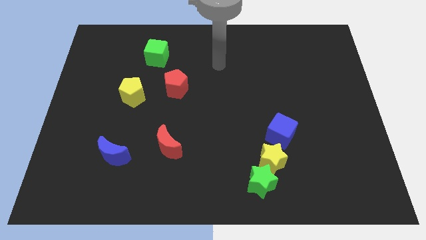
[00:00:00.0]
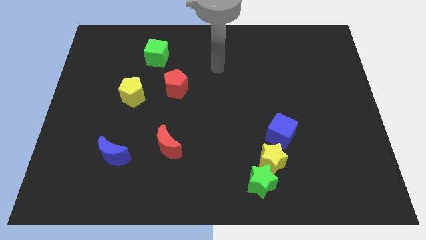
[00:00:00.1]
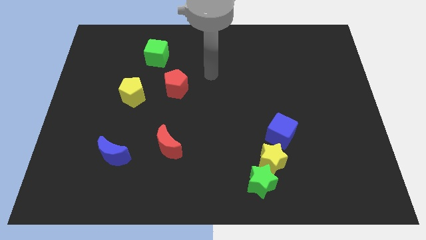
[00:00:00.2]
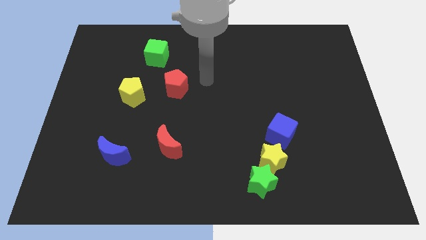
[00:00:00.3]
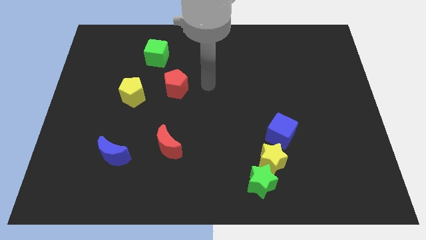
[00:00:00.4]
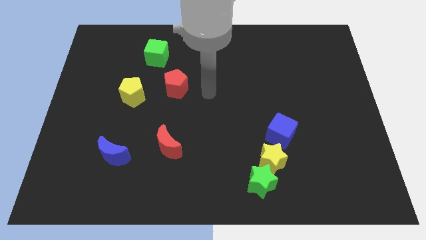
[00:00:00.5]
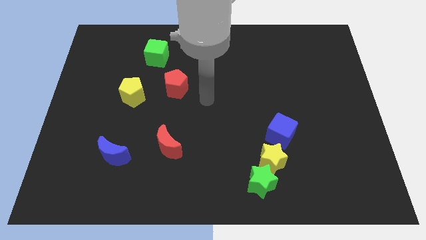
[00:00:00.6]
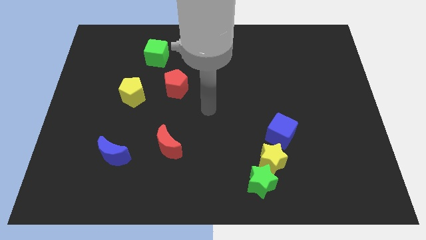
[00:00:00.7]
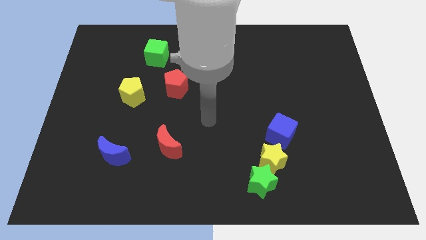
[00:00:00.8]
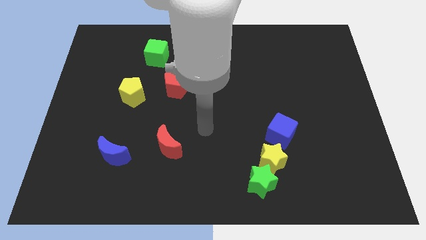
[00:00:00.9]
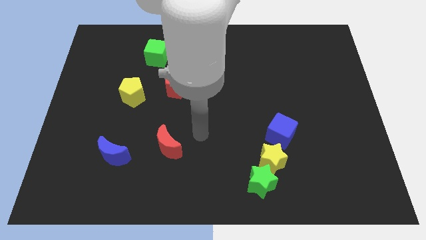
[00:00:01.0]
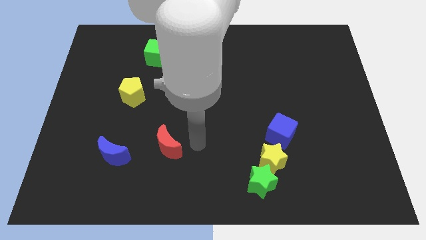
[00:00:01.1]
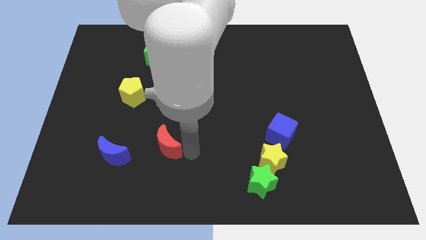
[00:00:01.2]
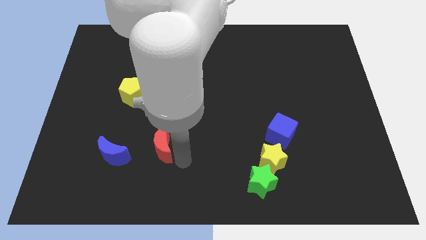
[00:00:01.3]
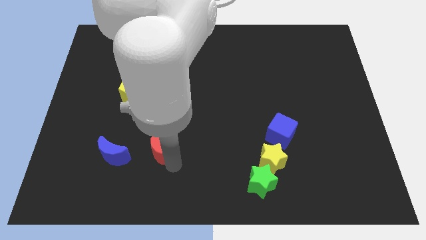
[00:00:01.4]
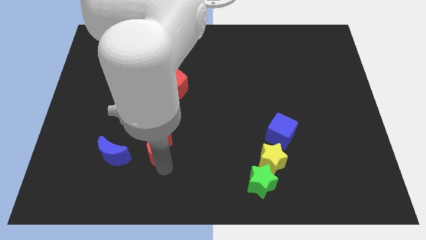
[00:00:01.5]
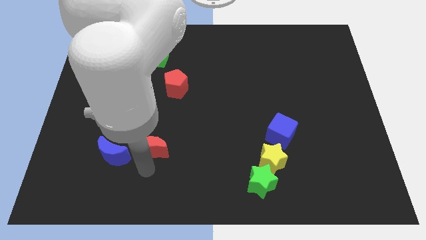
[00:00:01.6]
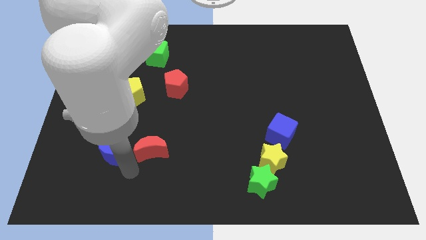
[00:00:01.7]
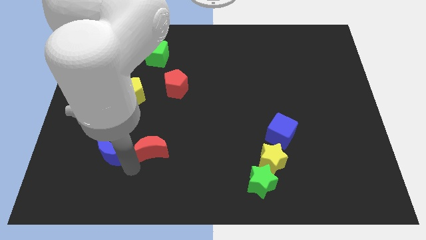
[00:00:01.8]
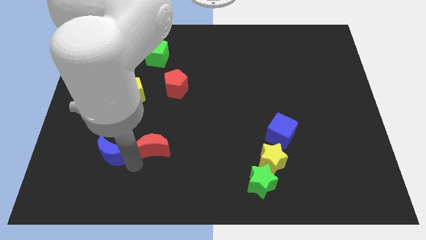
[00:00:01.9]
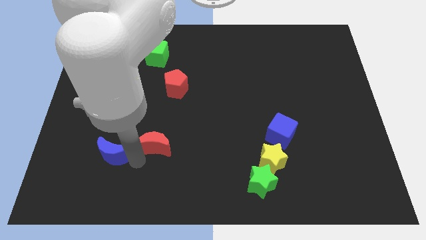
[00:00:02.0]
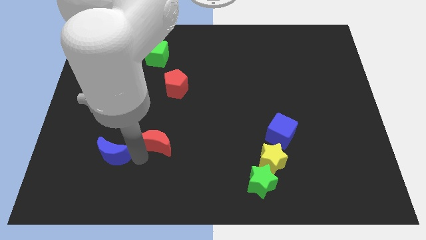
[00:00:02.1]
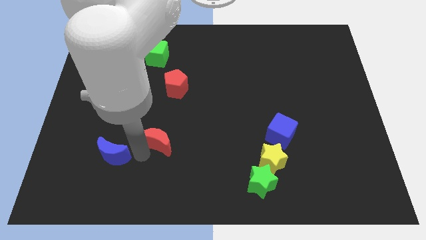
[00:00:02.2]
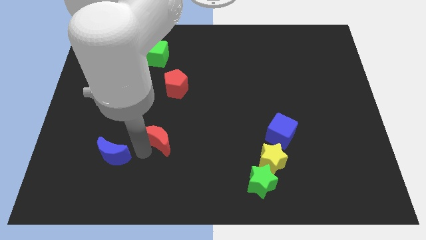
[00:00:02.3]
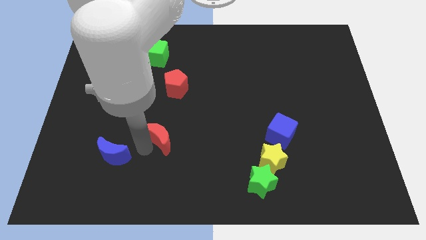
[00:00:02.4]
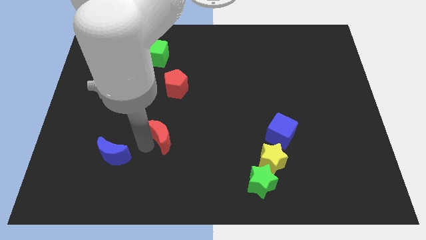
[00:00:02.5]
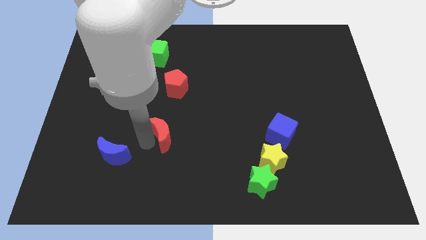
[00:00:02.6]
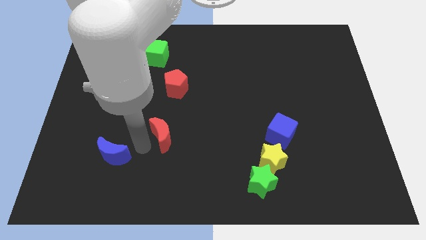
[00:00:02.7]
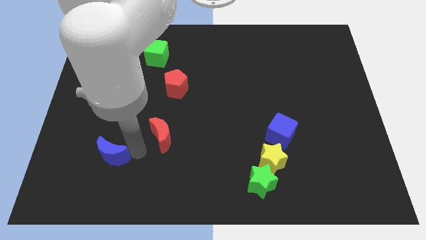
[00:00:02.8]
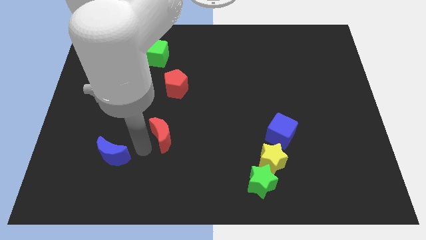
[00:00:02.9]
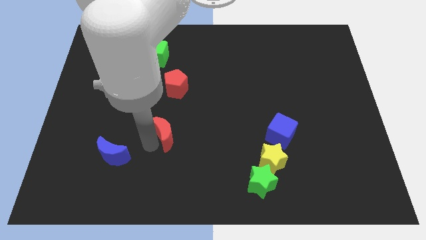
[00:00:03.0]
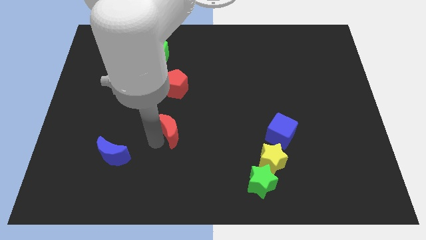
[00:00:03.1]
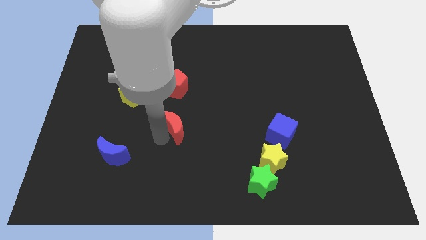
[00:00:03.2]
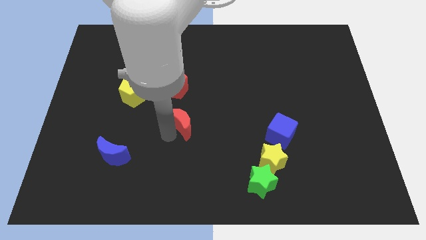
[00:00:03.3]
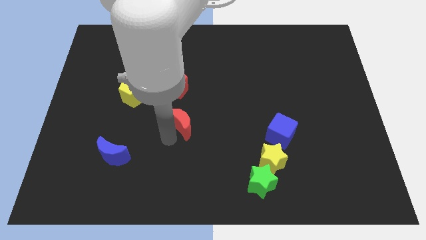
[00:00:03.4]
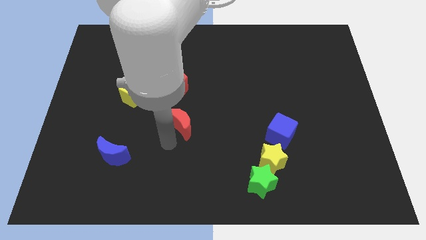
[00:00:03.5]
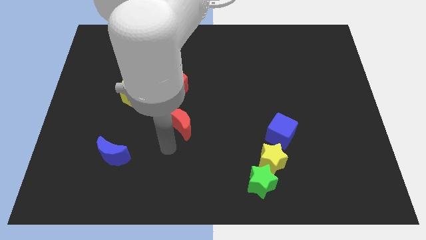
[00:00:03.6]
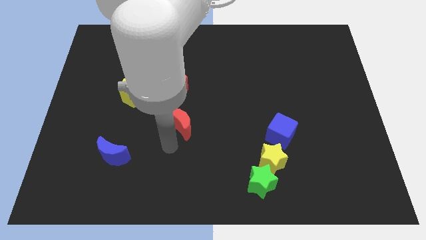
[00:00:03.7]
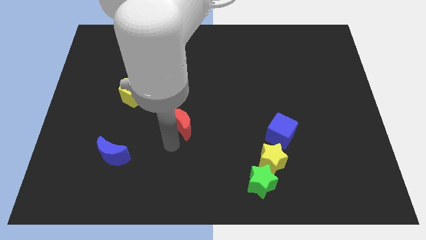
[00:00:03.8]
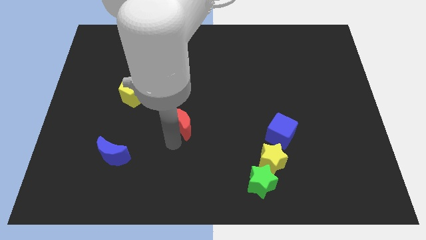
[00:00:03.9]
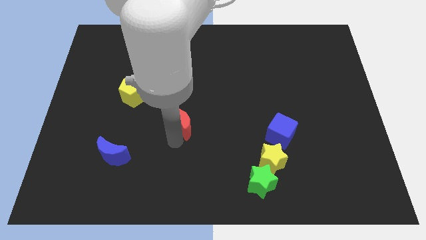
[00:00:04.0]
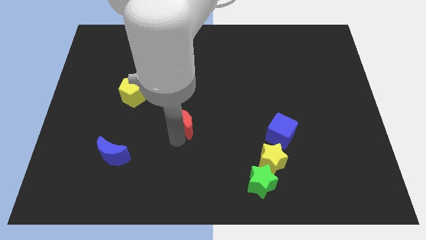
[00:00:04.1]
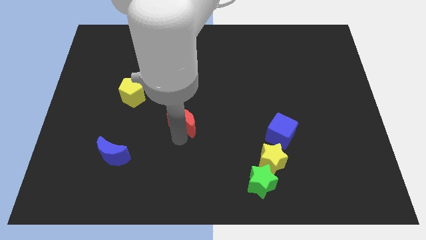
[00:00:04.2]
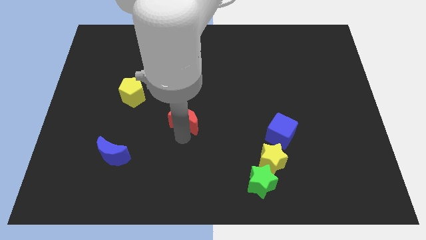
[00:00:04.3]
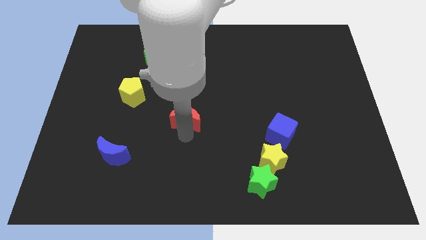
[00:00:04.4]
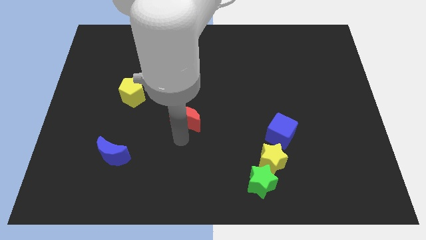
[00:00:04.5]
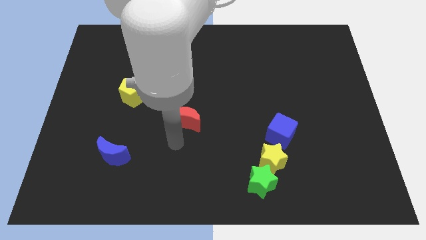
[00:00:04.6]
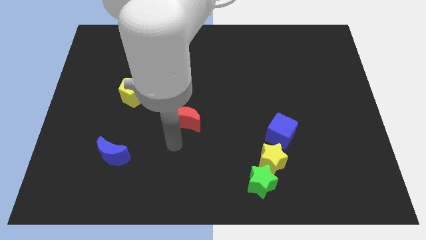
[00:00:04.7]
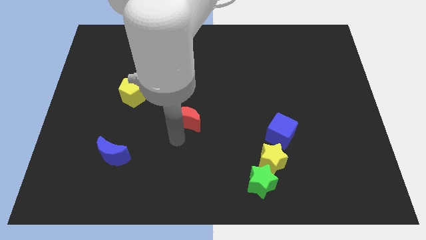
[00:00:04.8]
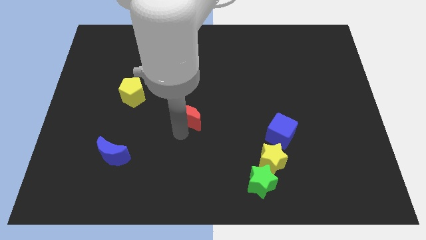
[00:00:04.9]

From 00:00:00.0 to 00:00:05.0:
push the red moon to the bottom right side of the red pentagon

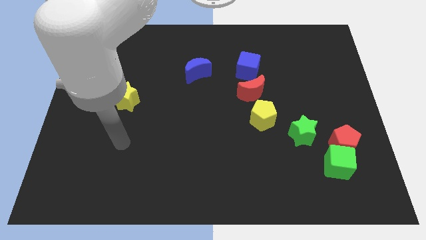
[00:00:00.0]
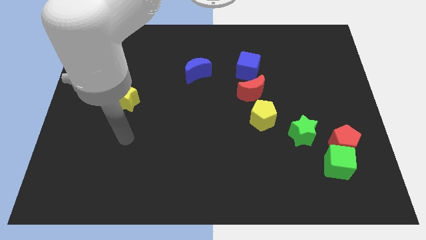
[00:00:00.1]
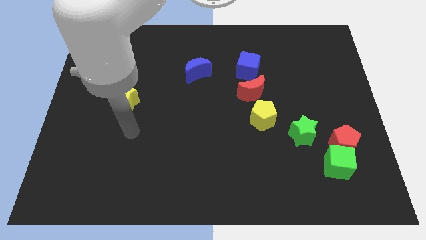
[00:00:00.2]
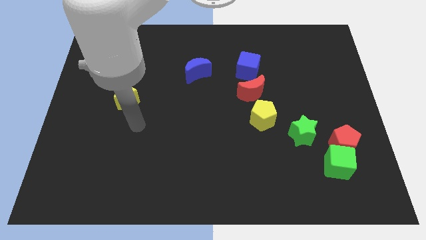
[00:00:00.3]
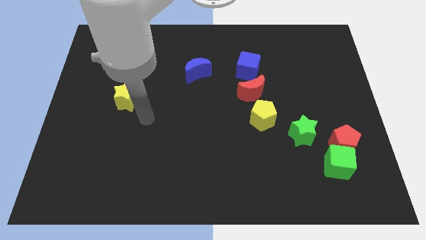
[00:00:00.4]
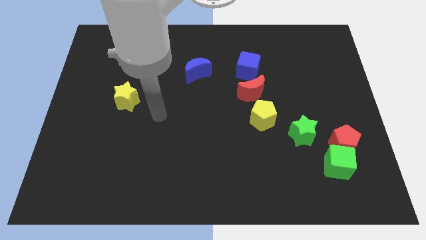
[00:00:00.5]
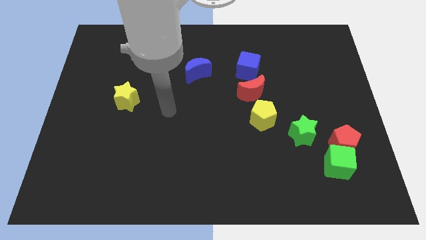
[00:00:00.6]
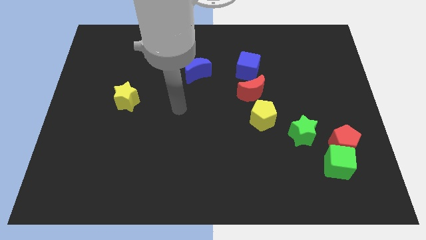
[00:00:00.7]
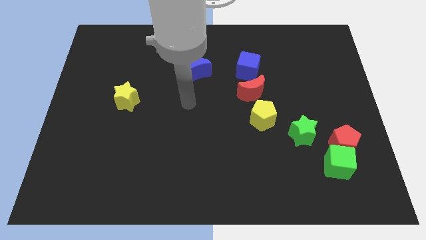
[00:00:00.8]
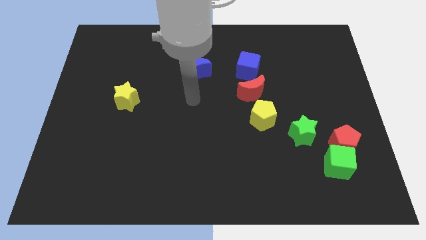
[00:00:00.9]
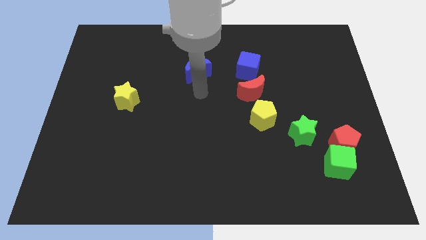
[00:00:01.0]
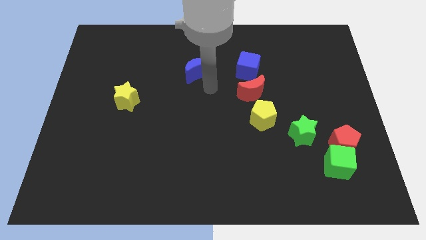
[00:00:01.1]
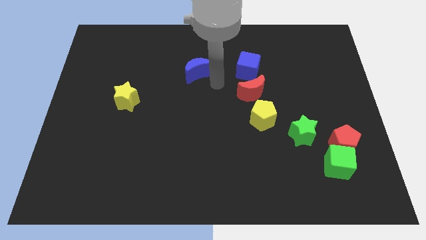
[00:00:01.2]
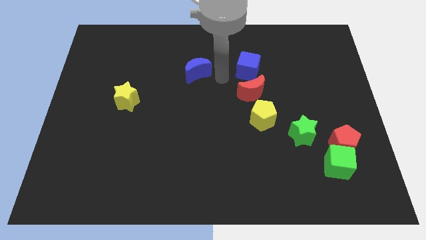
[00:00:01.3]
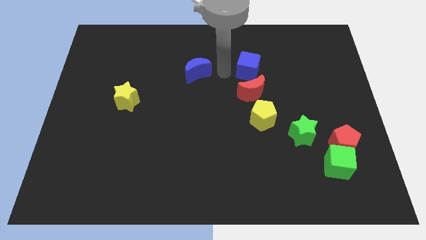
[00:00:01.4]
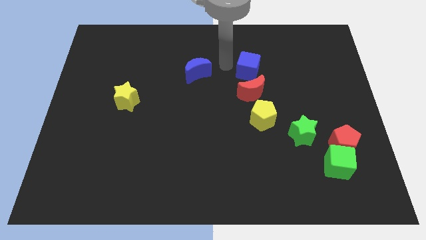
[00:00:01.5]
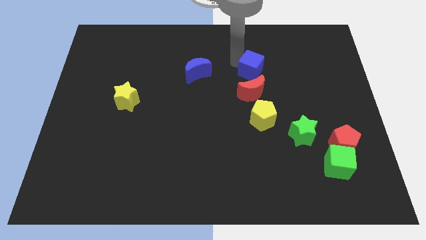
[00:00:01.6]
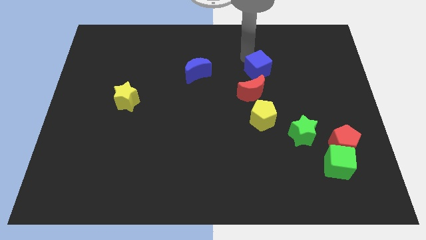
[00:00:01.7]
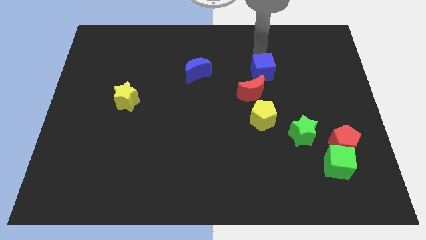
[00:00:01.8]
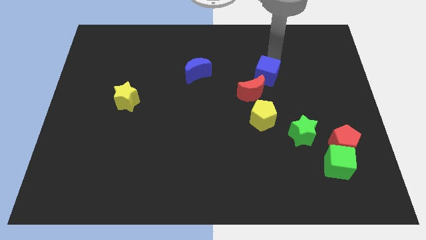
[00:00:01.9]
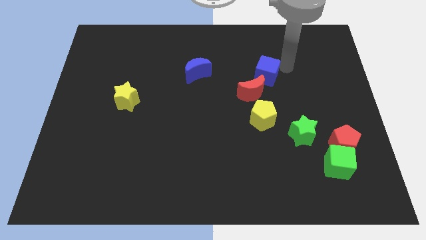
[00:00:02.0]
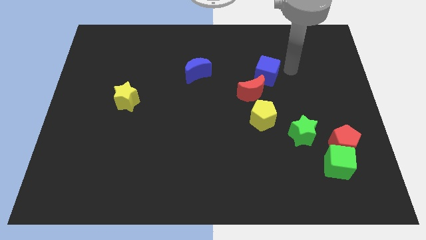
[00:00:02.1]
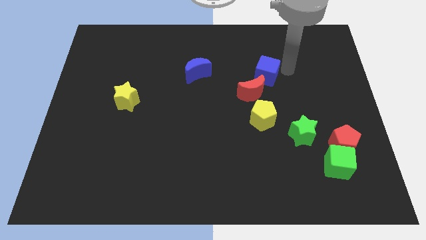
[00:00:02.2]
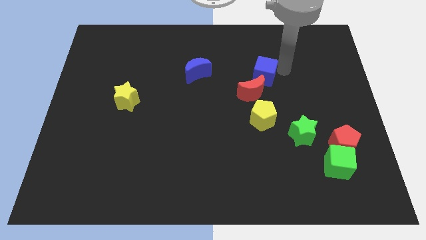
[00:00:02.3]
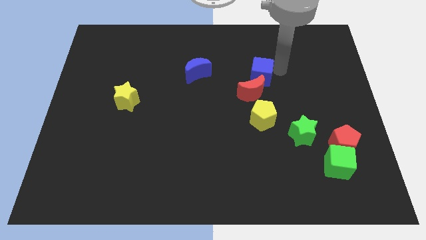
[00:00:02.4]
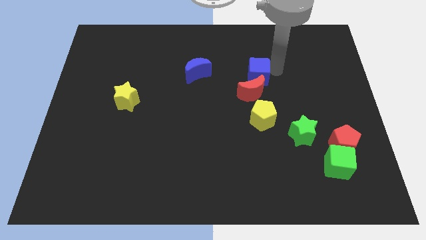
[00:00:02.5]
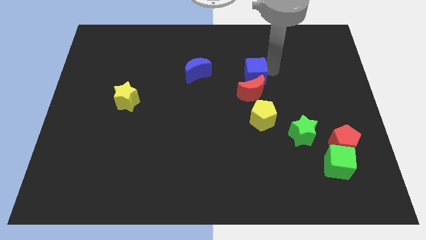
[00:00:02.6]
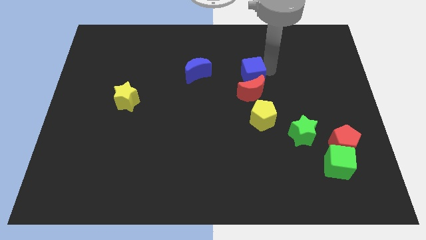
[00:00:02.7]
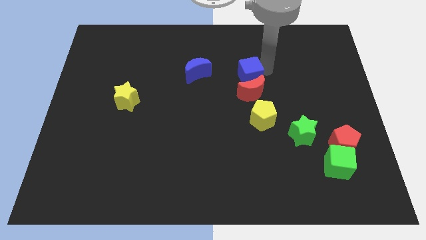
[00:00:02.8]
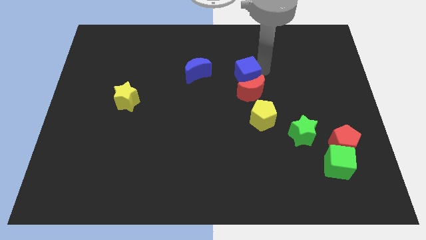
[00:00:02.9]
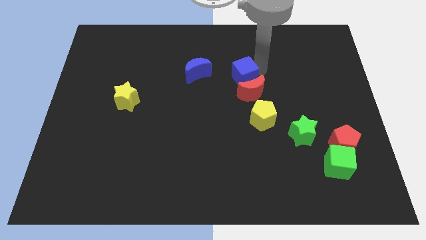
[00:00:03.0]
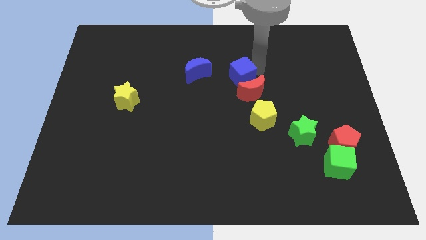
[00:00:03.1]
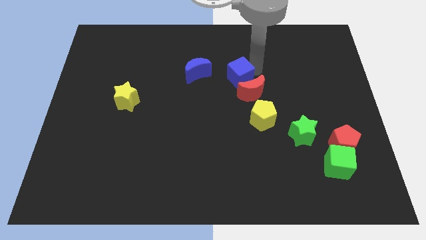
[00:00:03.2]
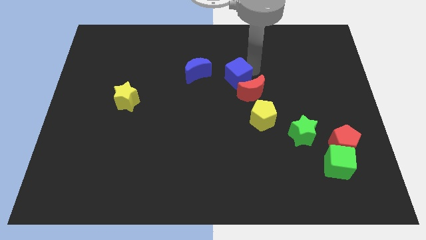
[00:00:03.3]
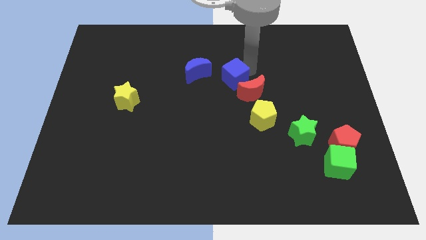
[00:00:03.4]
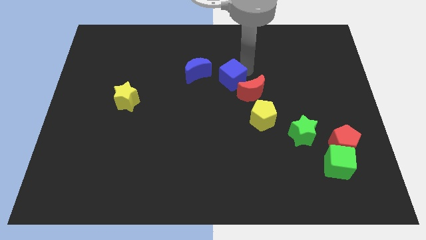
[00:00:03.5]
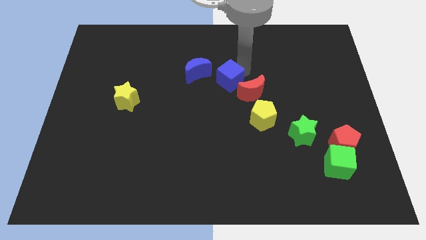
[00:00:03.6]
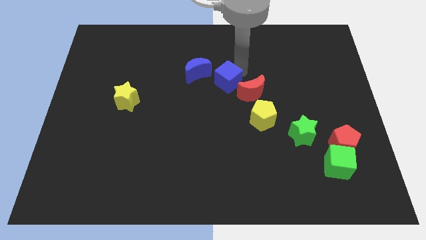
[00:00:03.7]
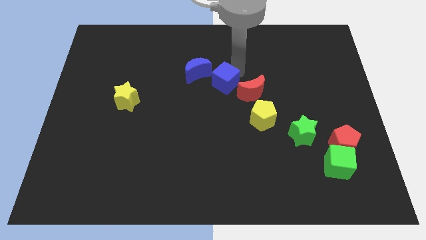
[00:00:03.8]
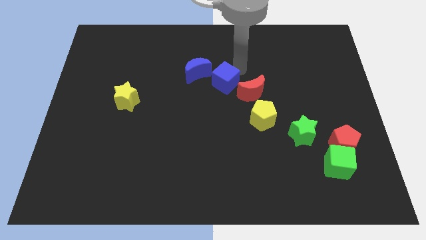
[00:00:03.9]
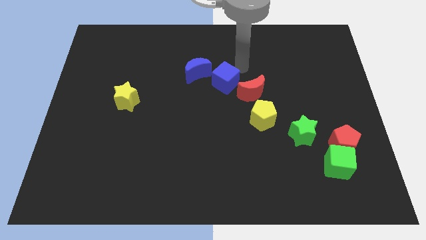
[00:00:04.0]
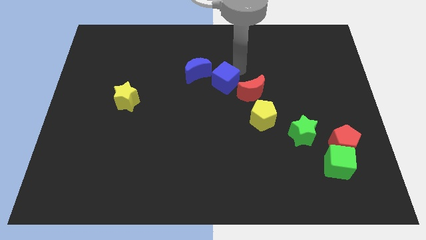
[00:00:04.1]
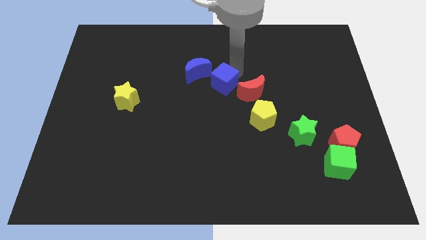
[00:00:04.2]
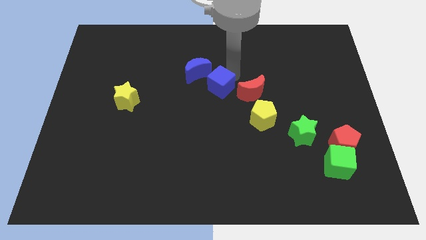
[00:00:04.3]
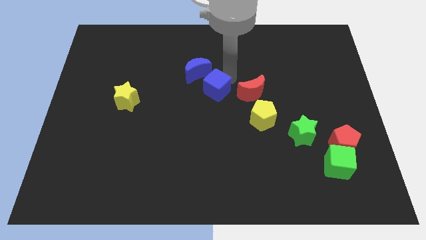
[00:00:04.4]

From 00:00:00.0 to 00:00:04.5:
push the blue cube below the blue moon
